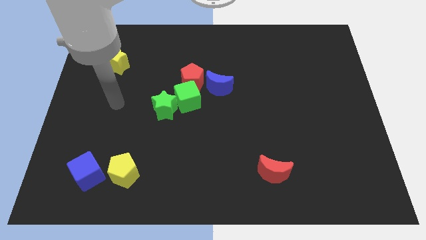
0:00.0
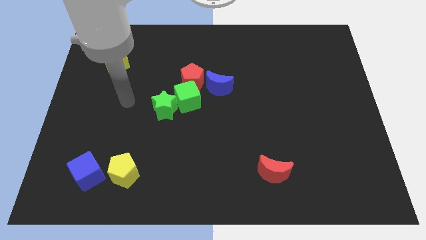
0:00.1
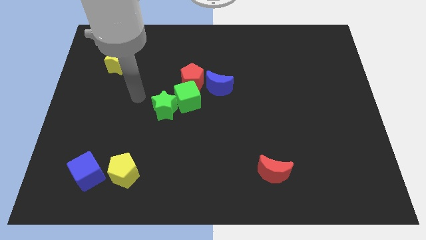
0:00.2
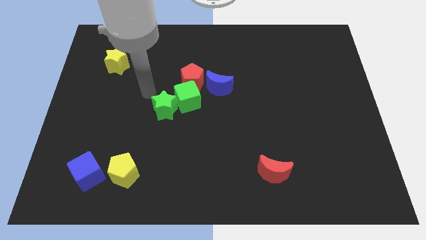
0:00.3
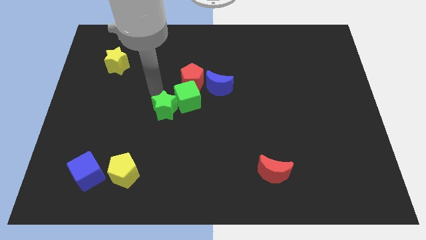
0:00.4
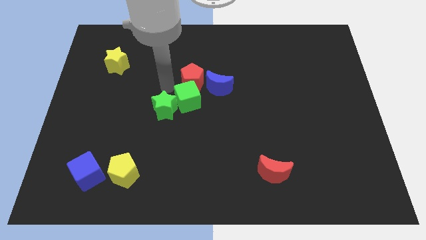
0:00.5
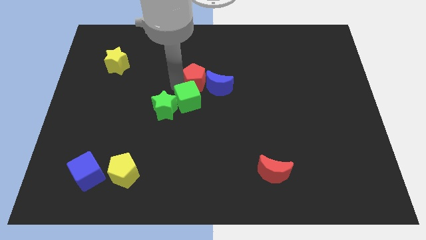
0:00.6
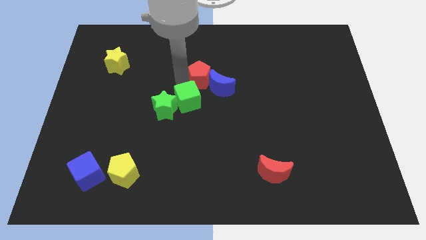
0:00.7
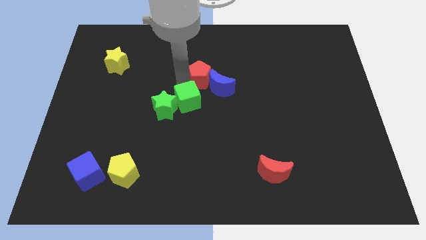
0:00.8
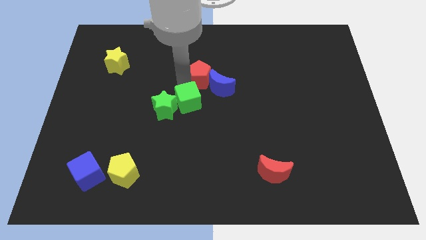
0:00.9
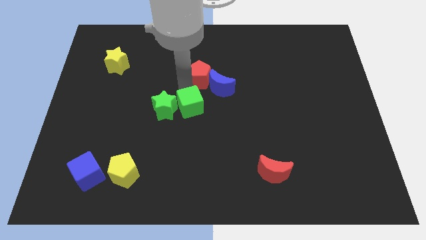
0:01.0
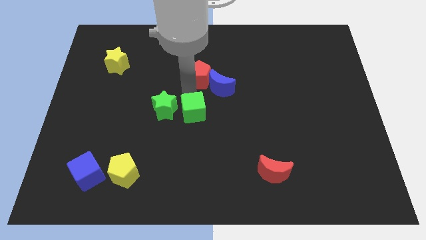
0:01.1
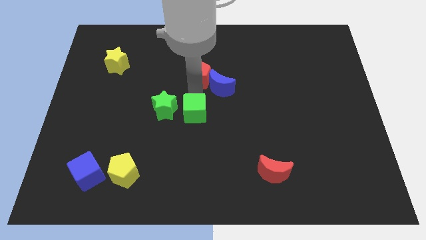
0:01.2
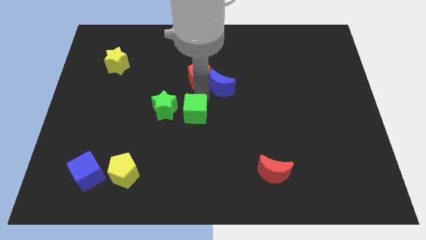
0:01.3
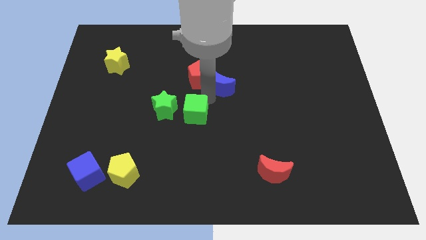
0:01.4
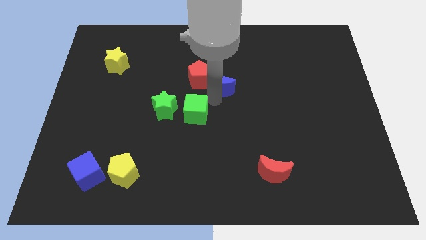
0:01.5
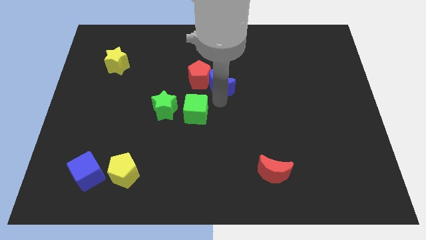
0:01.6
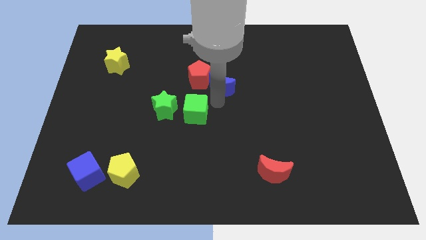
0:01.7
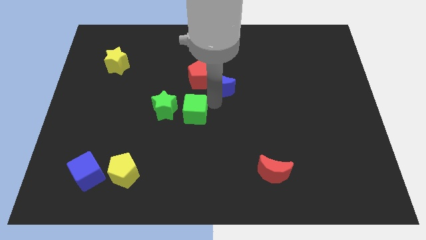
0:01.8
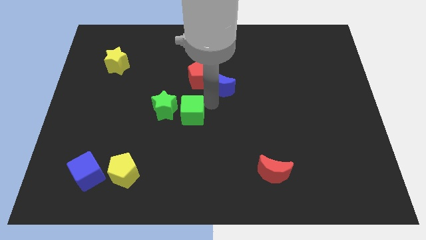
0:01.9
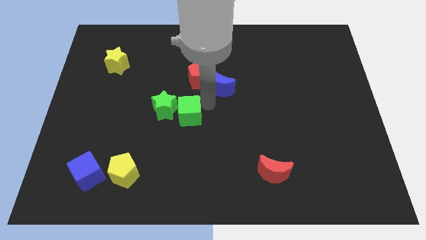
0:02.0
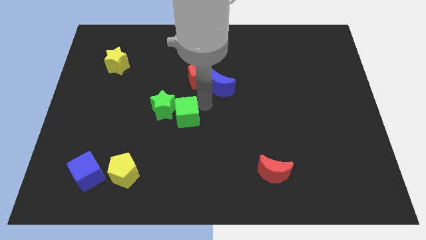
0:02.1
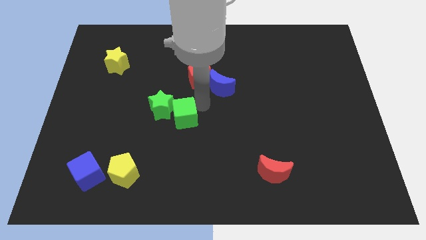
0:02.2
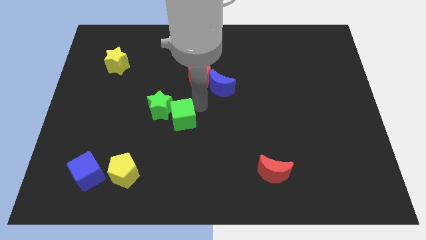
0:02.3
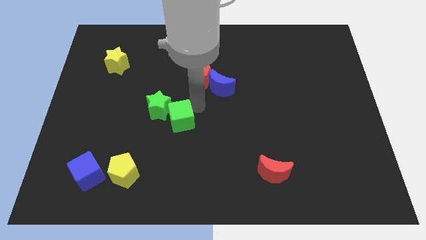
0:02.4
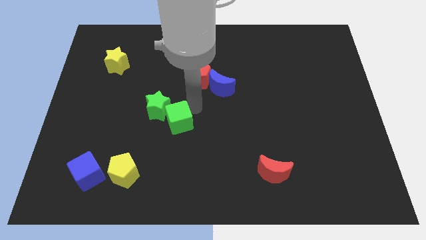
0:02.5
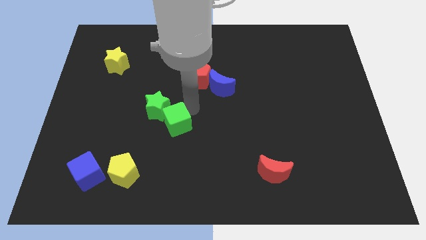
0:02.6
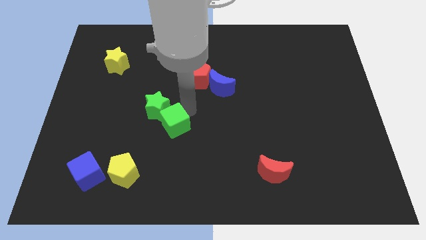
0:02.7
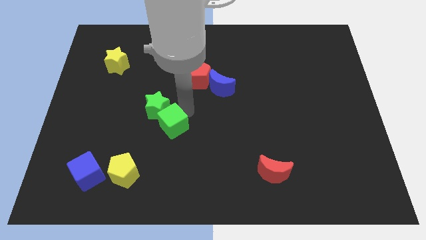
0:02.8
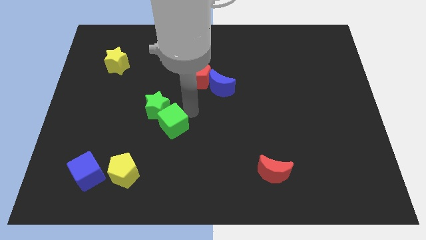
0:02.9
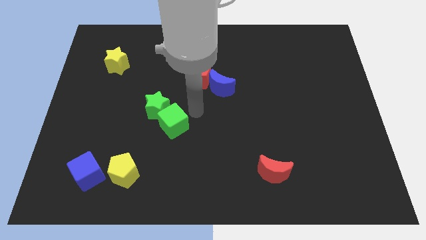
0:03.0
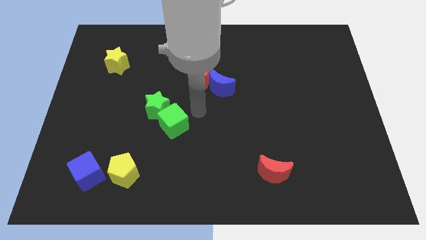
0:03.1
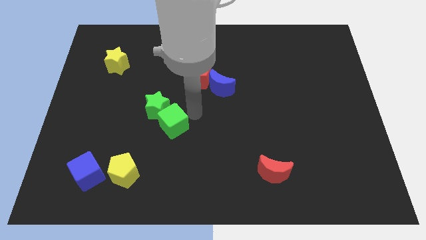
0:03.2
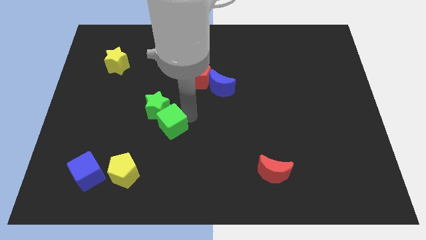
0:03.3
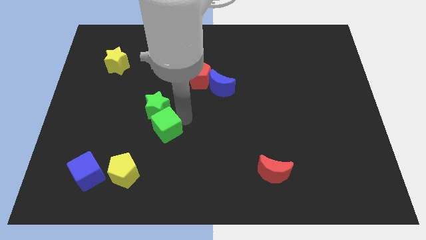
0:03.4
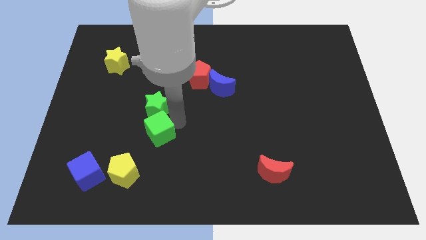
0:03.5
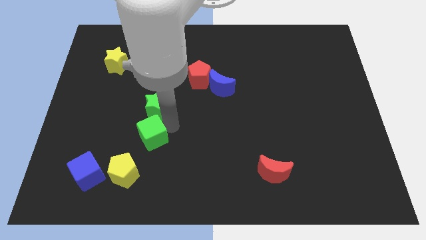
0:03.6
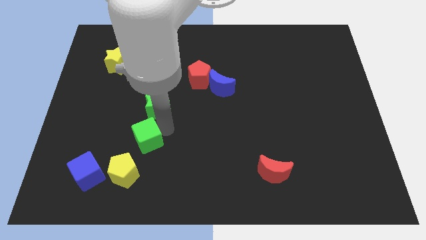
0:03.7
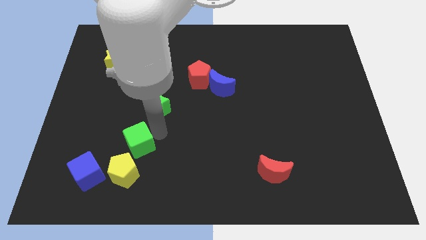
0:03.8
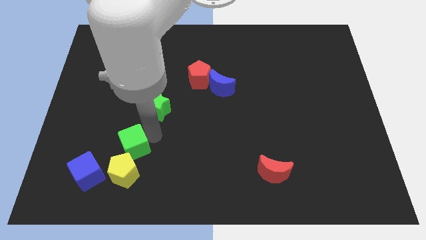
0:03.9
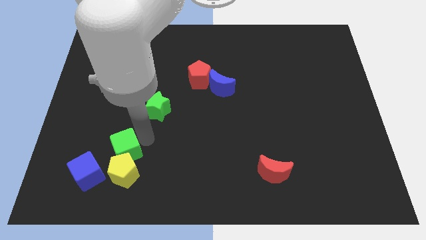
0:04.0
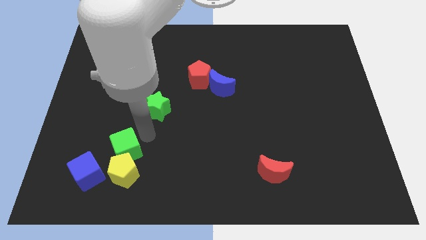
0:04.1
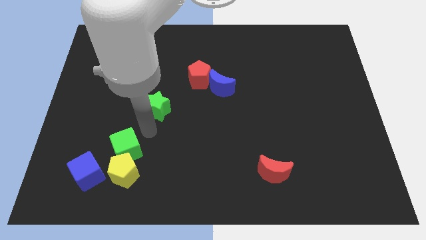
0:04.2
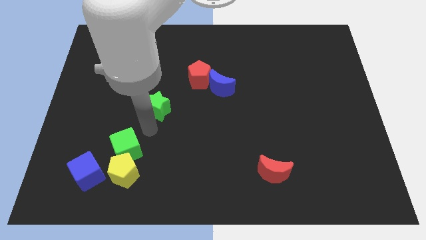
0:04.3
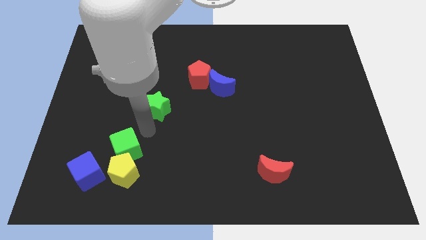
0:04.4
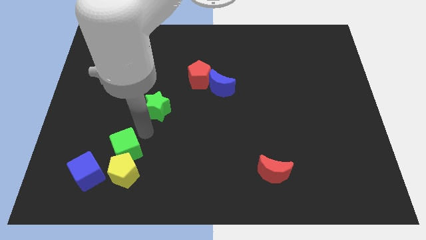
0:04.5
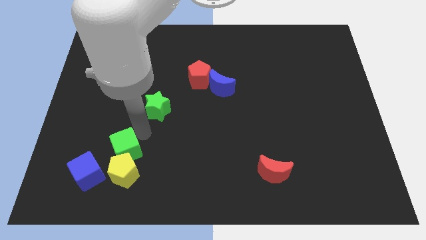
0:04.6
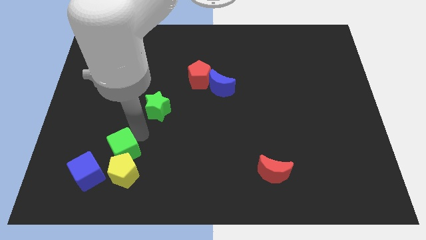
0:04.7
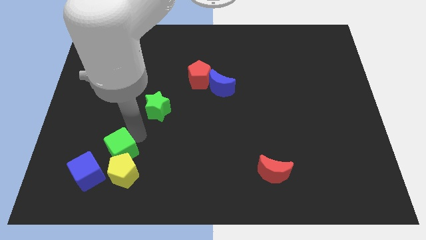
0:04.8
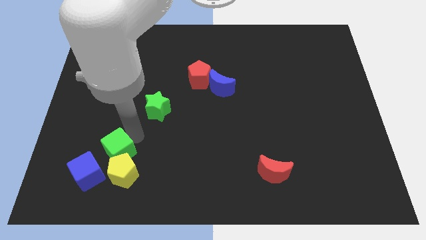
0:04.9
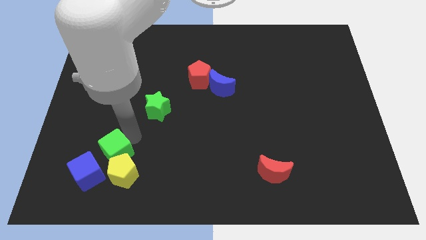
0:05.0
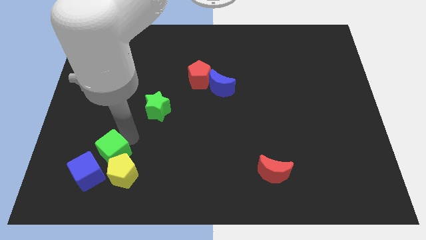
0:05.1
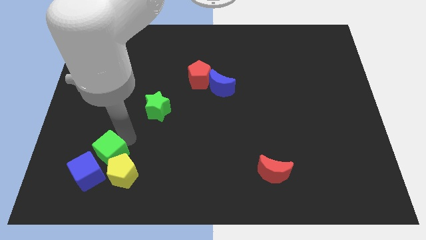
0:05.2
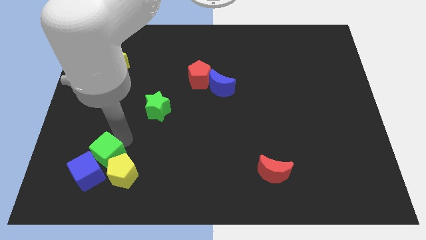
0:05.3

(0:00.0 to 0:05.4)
move the green cube close to the blue cube

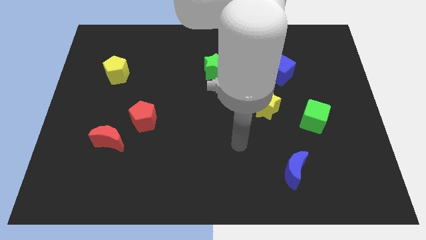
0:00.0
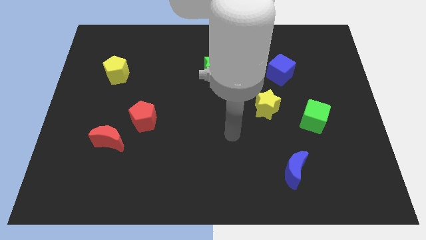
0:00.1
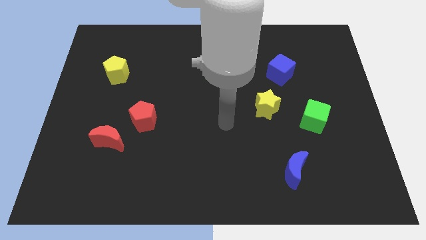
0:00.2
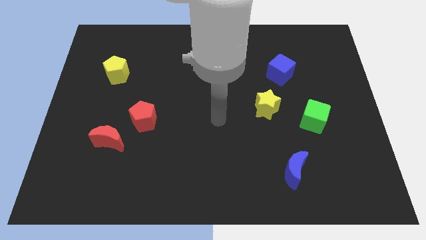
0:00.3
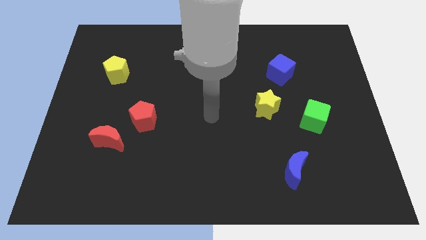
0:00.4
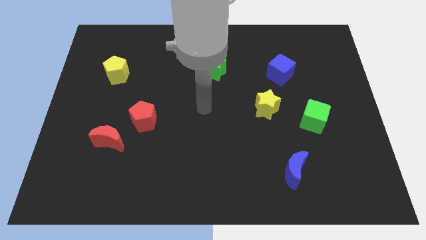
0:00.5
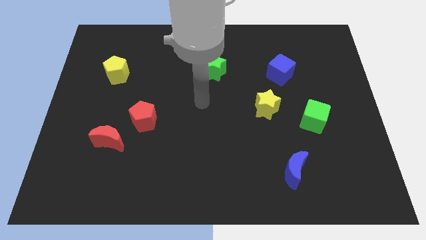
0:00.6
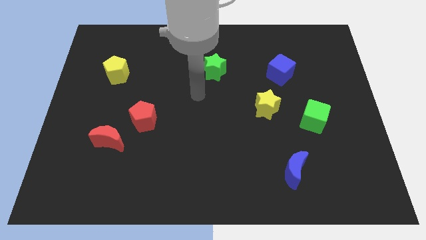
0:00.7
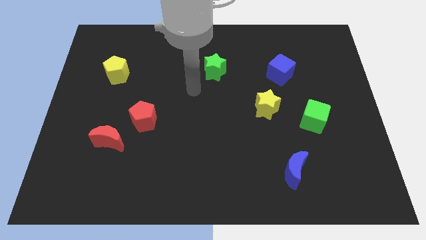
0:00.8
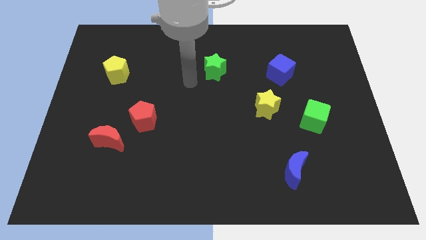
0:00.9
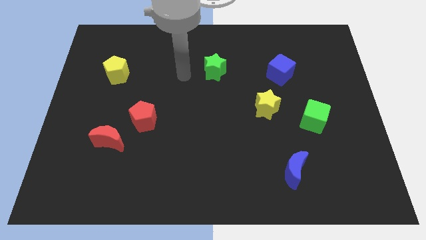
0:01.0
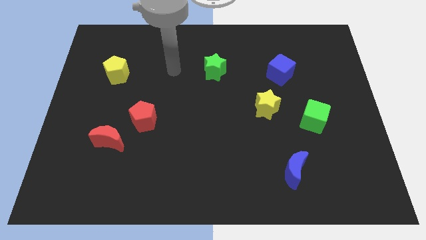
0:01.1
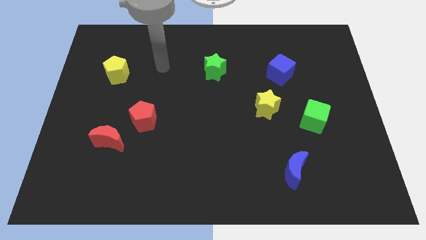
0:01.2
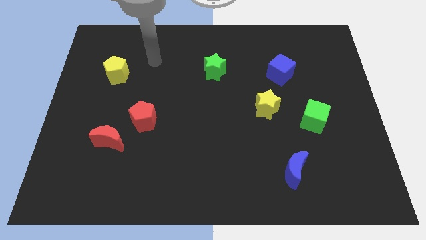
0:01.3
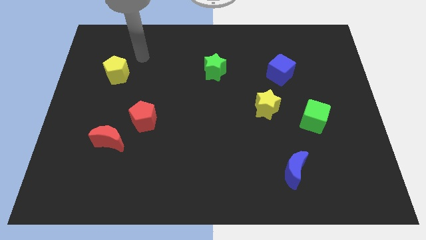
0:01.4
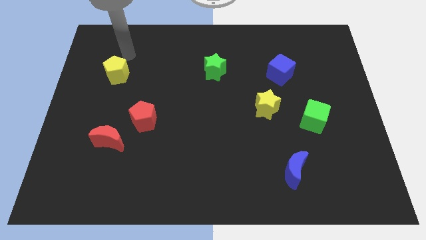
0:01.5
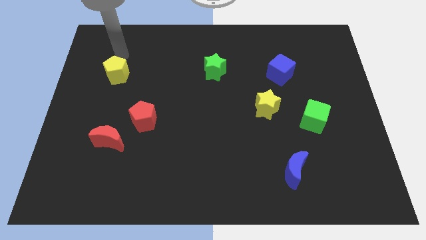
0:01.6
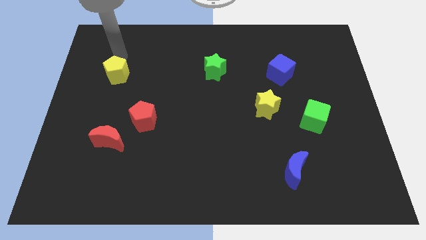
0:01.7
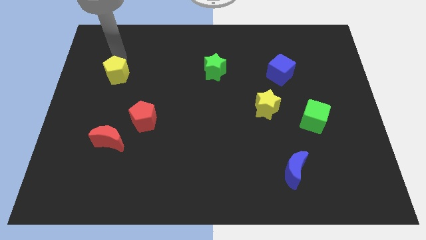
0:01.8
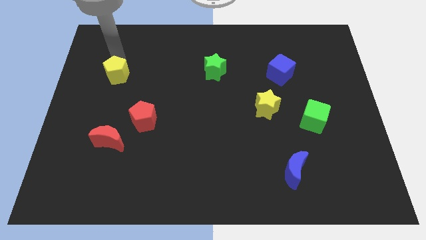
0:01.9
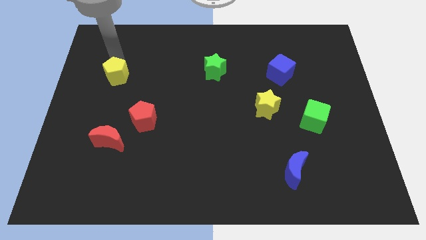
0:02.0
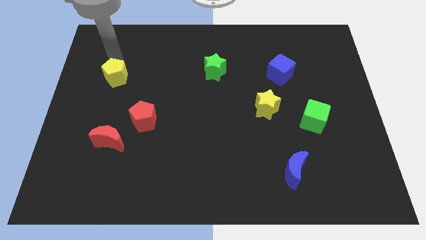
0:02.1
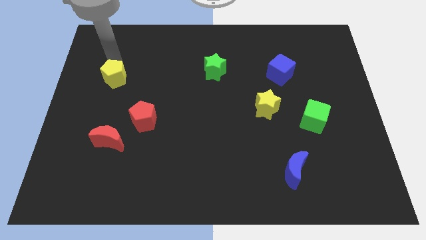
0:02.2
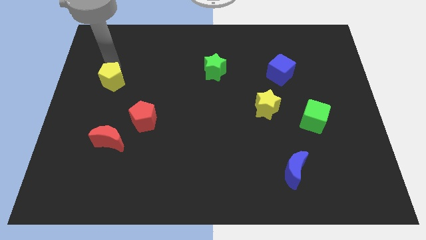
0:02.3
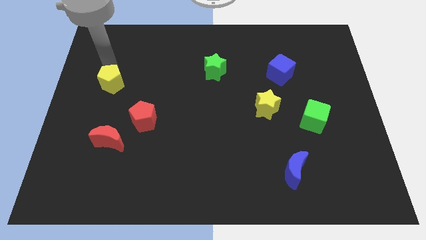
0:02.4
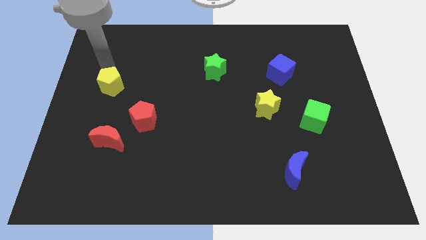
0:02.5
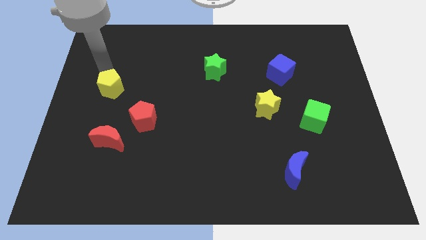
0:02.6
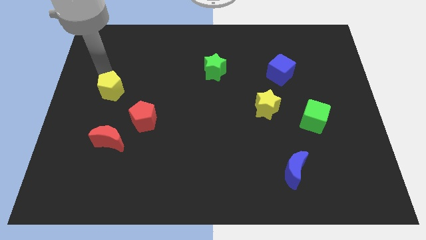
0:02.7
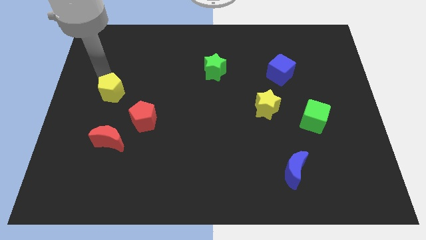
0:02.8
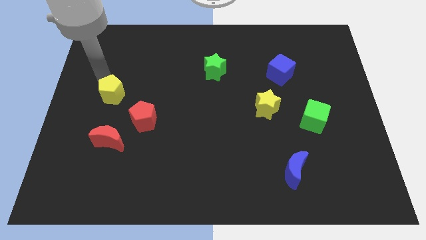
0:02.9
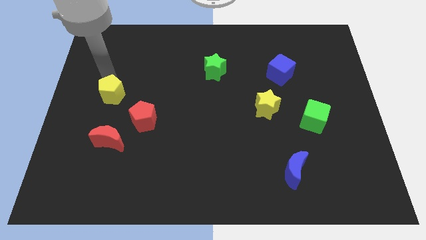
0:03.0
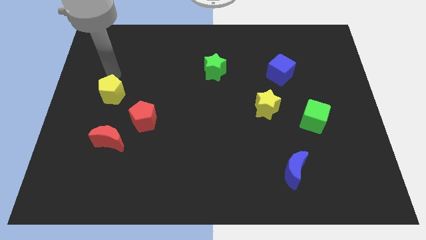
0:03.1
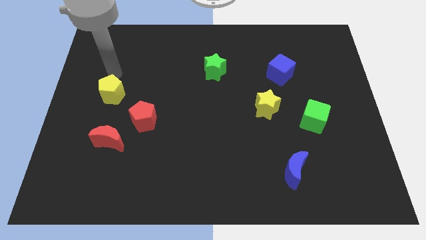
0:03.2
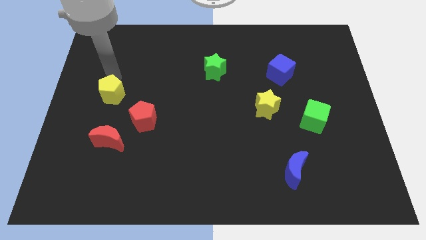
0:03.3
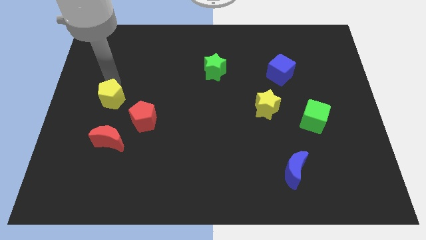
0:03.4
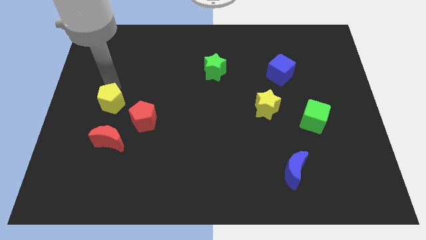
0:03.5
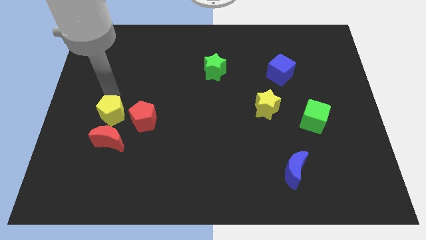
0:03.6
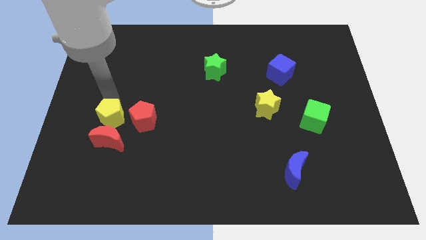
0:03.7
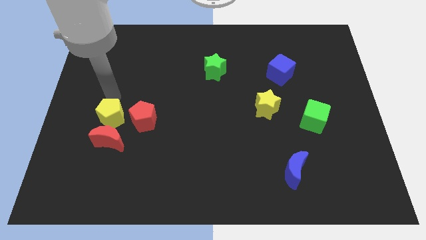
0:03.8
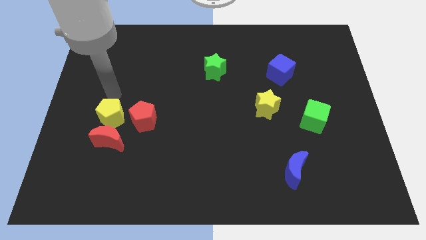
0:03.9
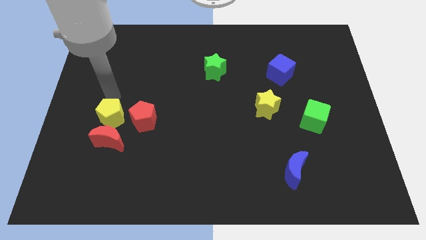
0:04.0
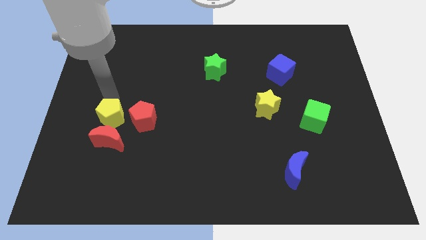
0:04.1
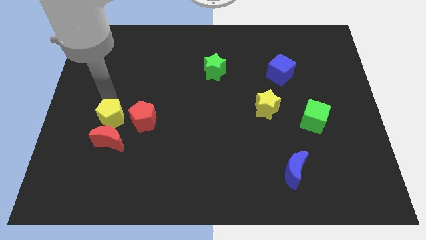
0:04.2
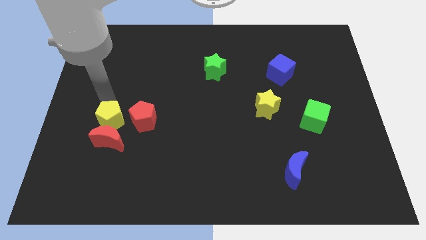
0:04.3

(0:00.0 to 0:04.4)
push the yellow pentagon to the red moon
